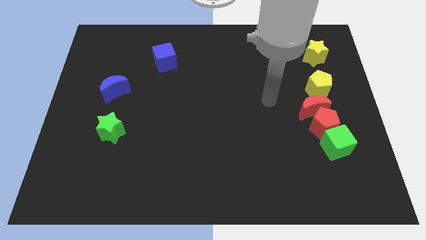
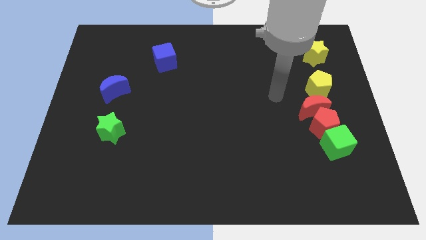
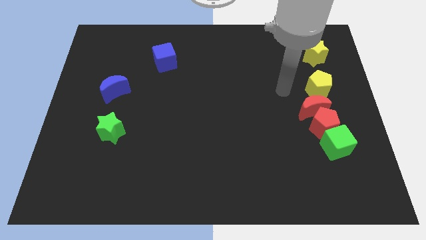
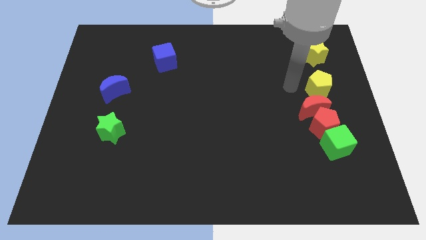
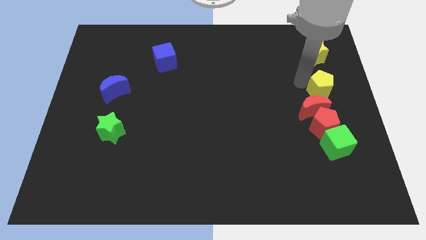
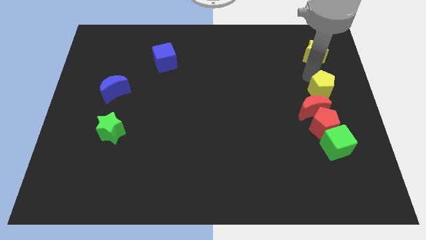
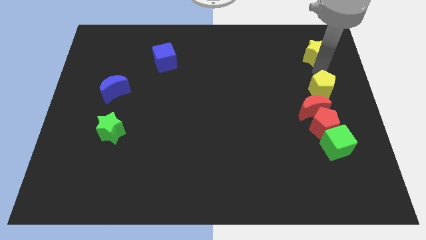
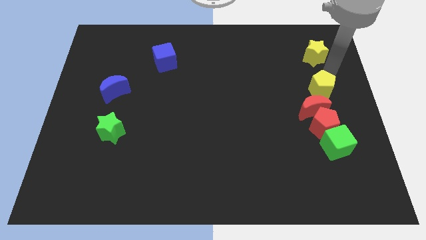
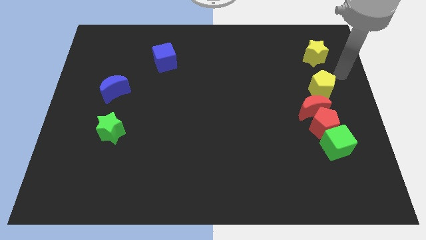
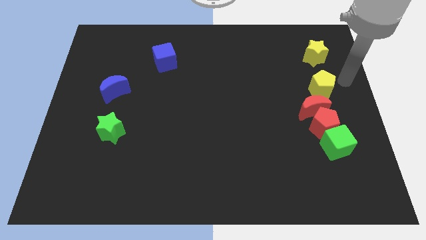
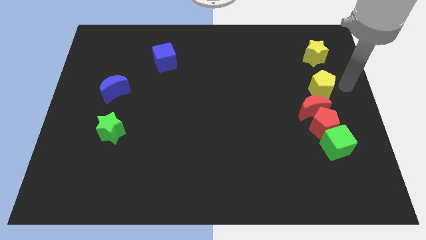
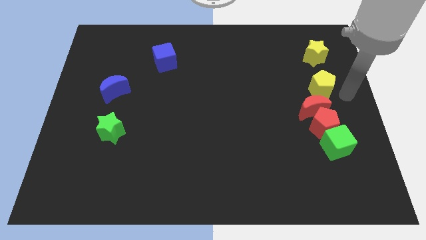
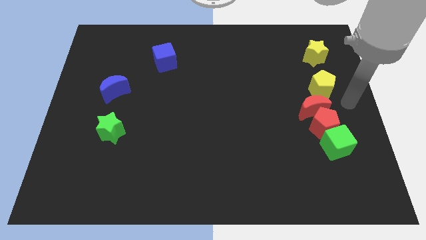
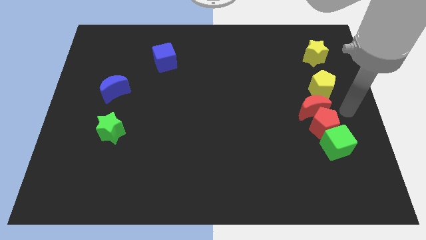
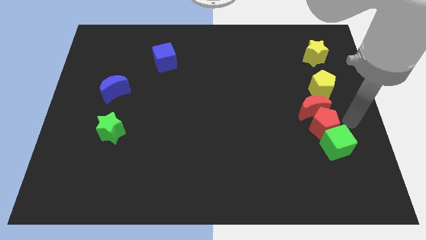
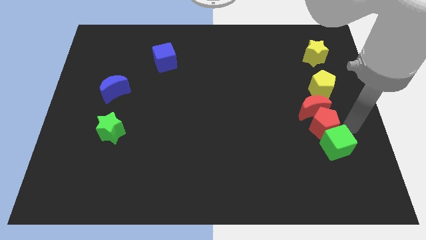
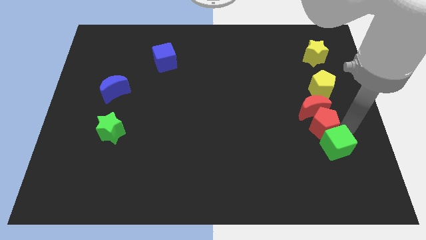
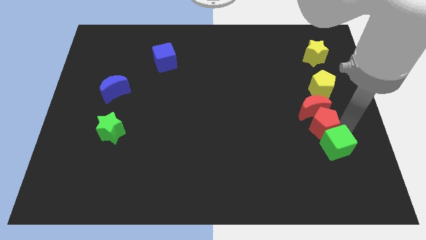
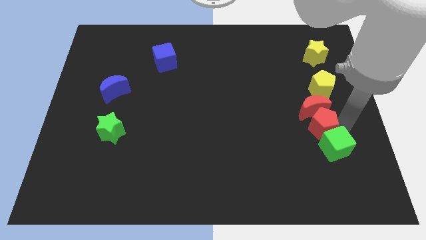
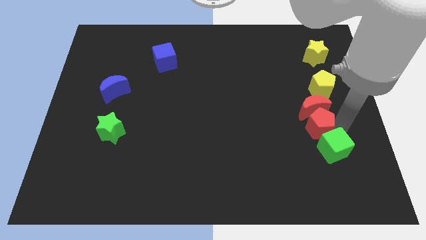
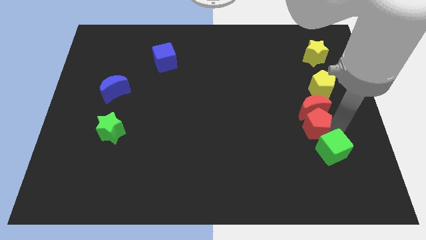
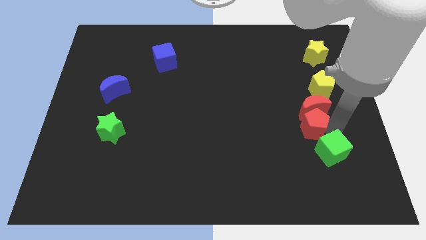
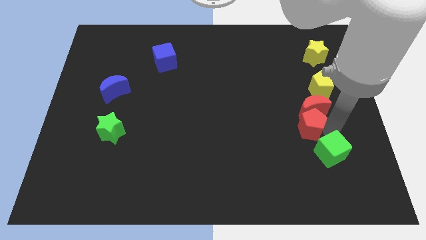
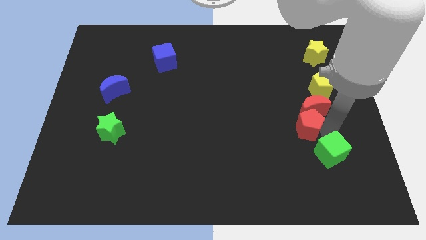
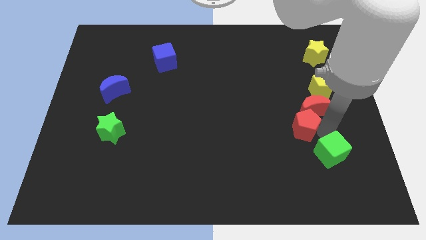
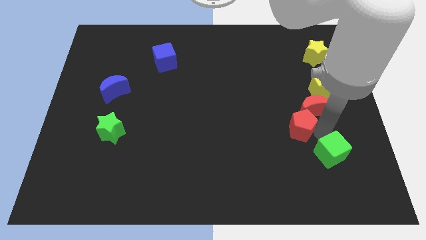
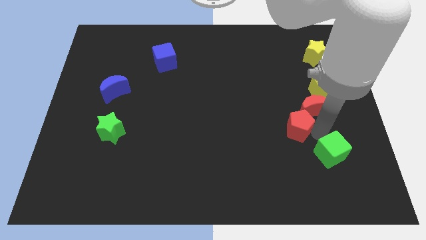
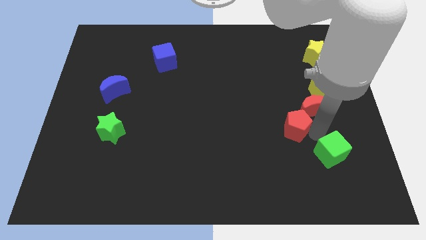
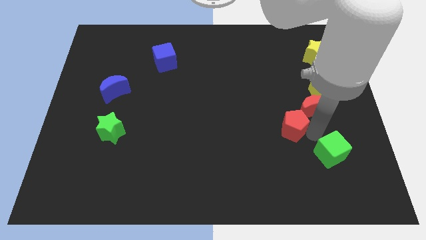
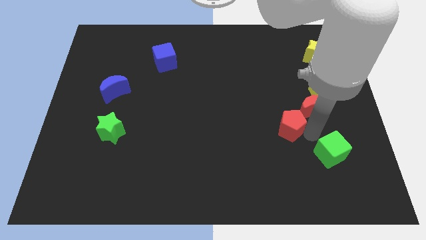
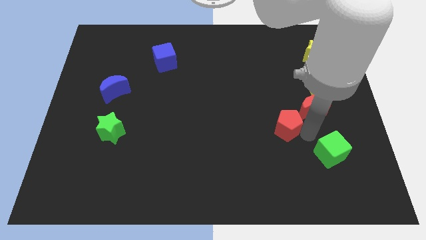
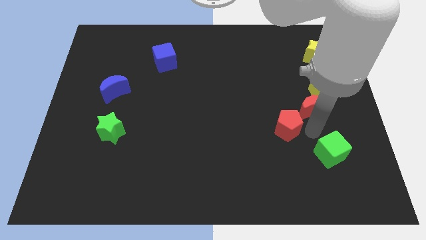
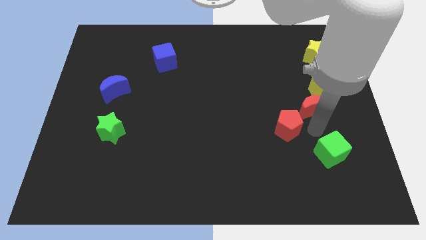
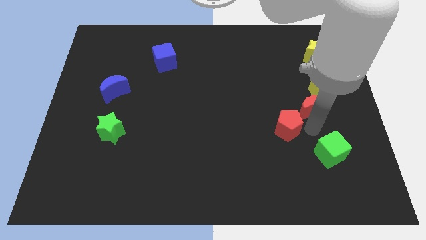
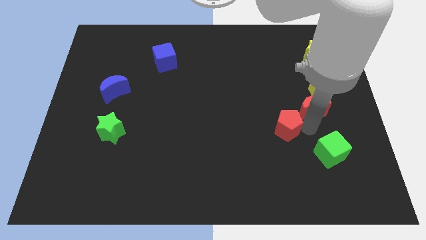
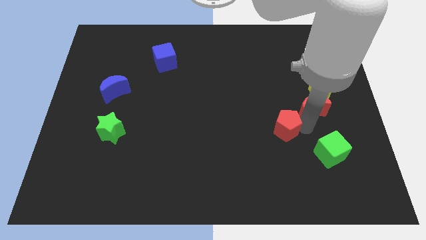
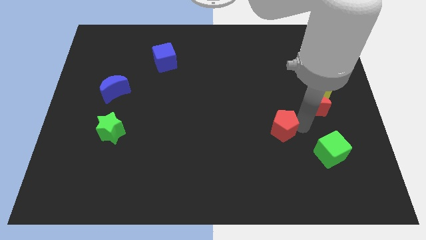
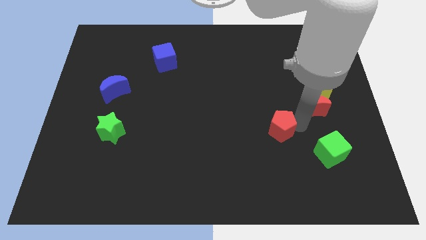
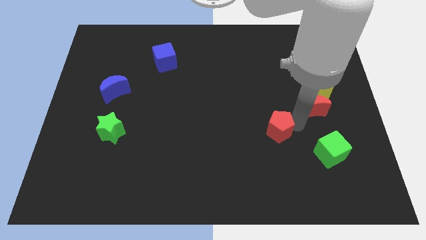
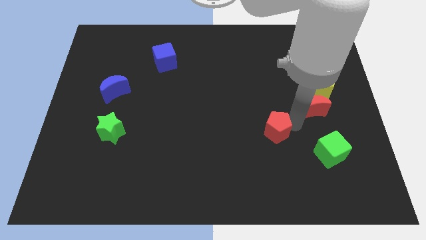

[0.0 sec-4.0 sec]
move the red pentagon away from the red moon and green cube

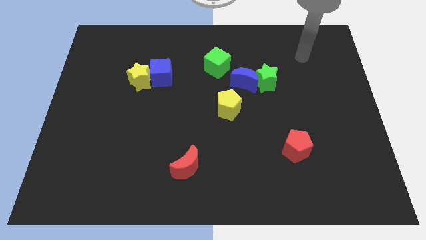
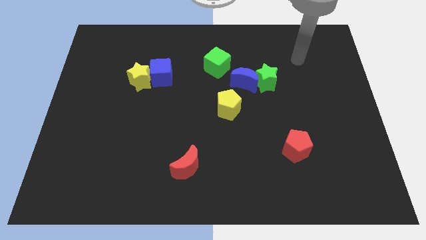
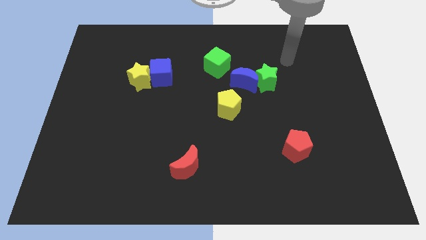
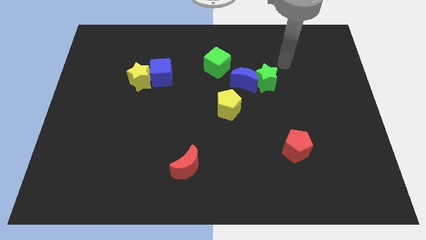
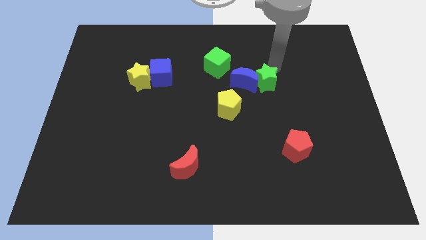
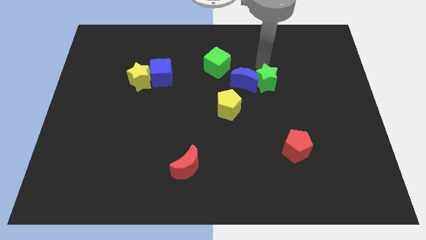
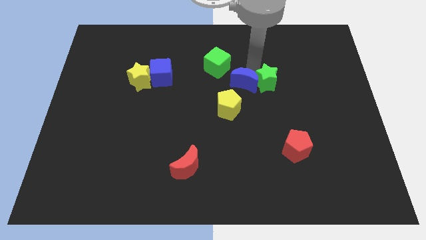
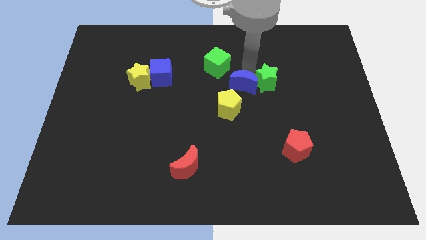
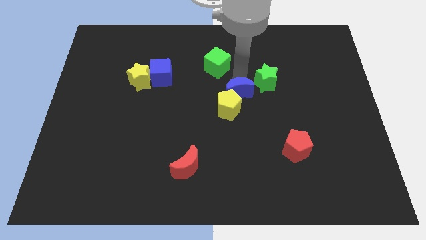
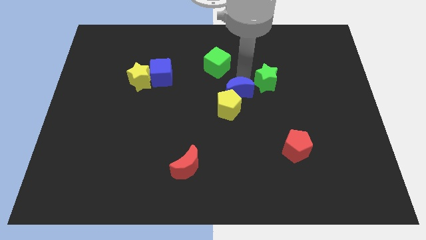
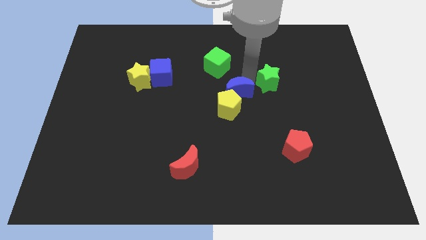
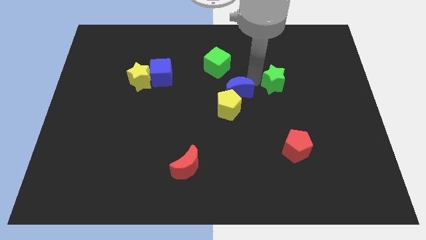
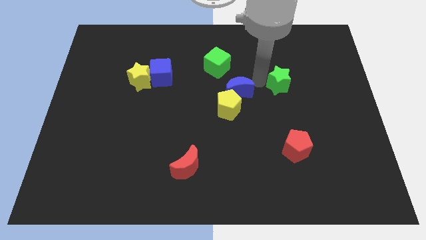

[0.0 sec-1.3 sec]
move the green star away from the blue moon

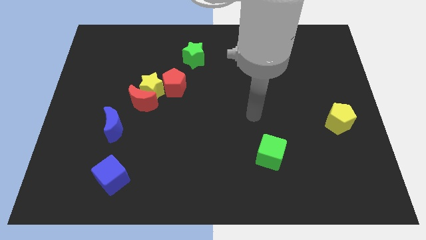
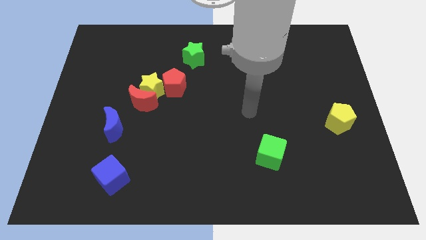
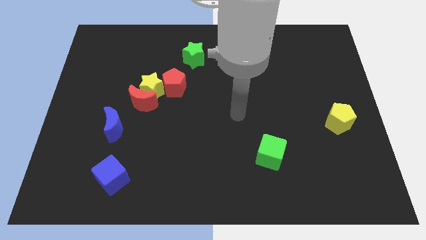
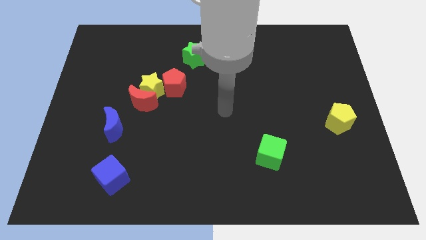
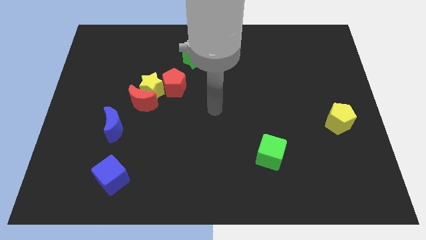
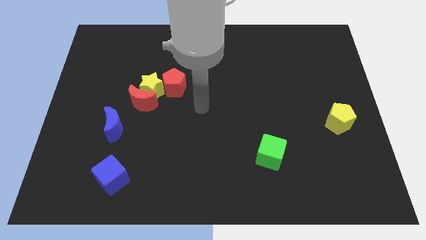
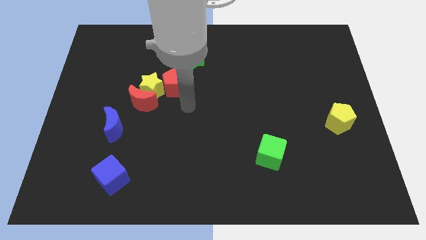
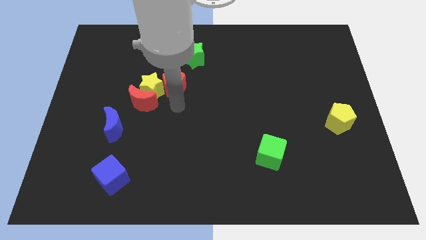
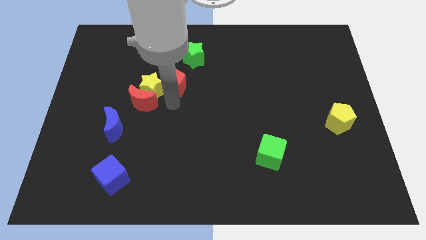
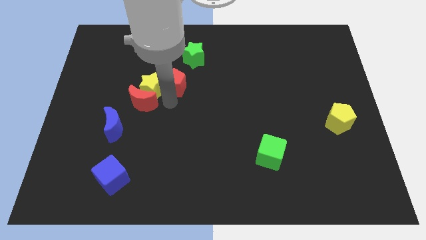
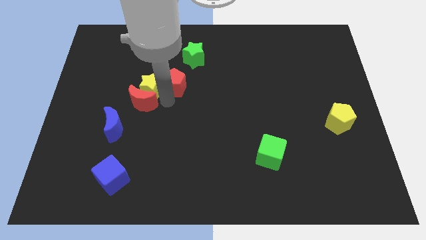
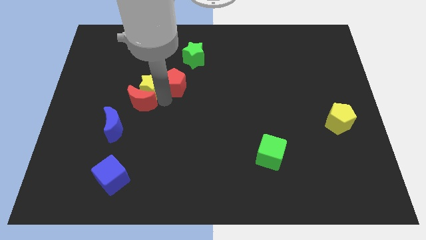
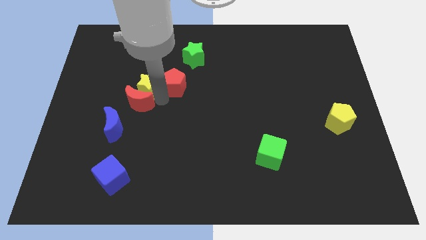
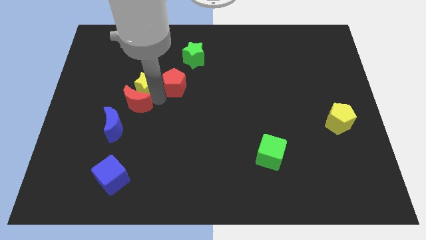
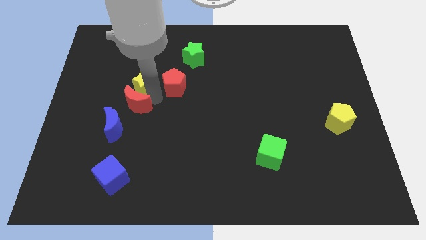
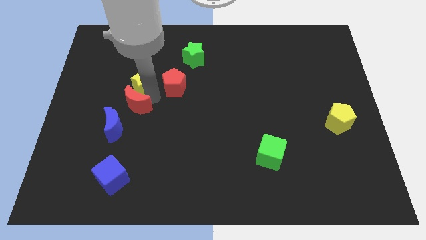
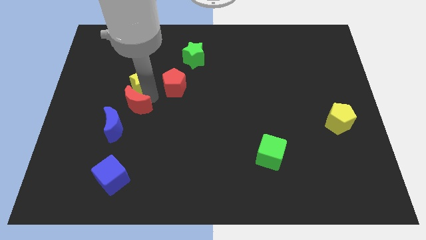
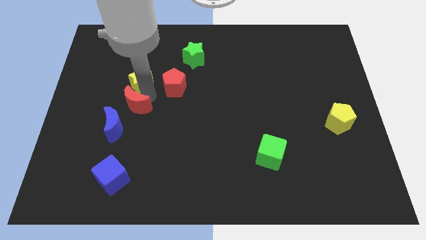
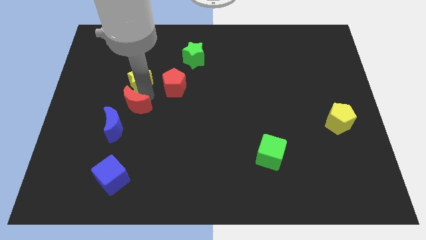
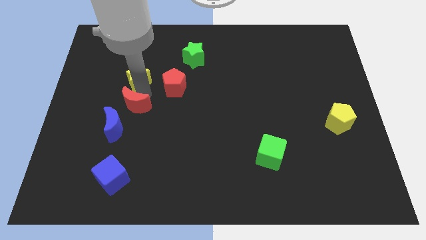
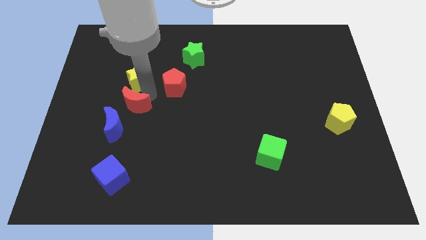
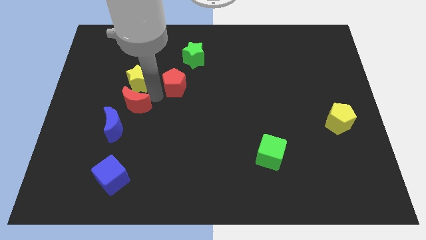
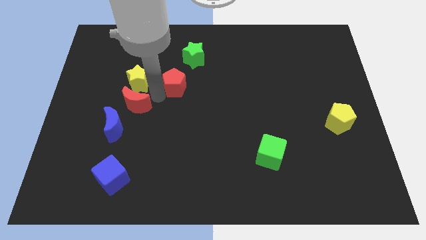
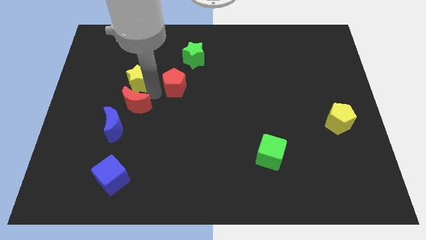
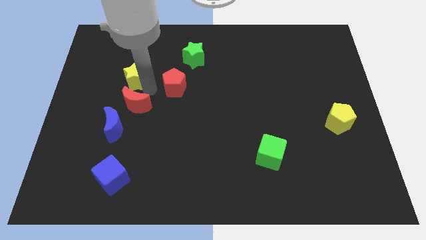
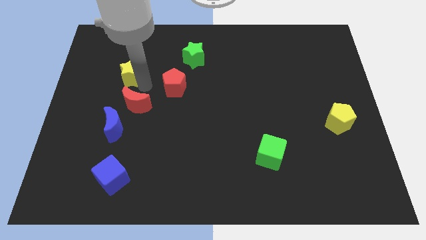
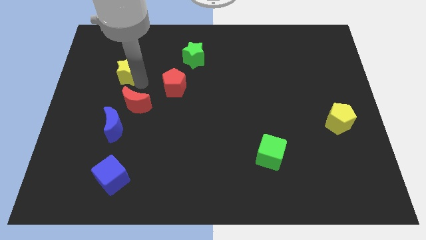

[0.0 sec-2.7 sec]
move the yellow star away from the red moon and red pentagon

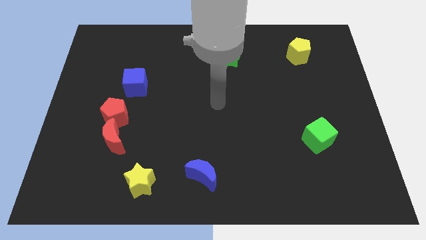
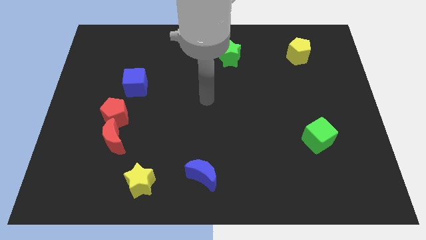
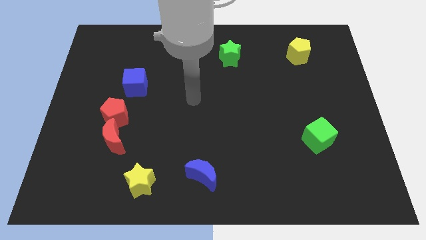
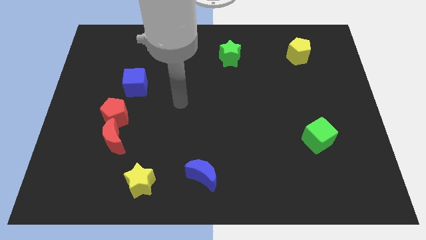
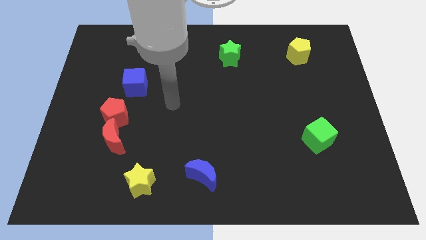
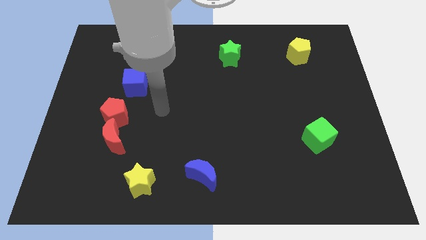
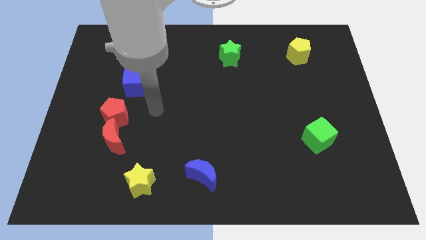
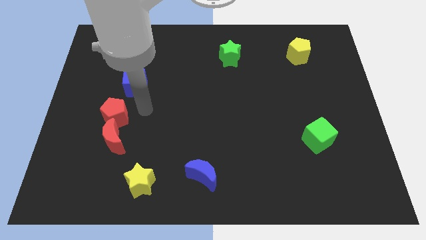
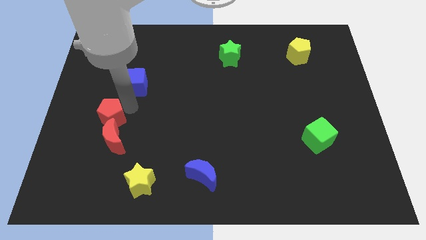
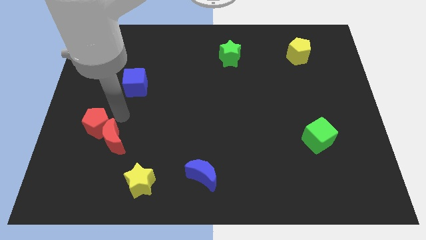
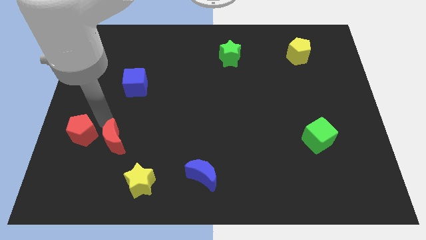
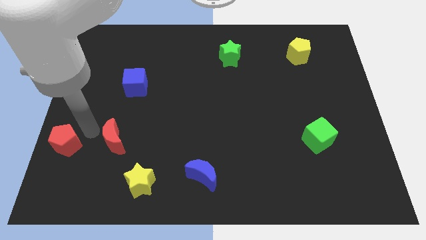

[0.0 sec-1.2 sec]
move the red moon away from the red pentagon
